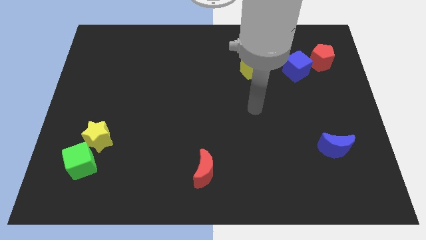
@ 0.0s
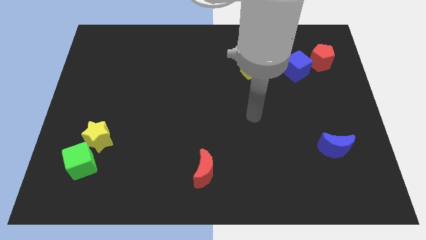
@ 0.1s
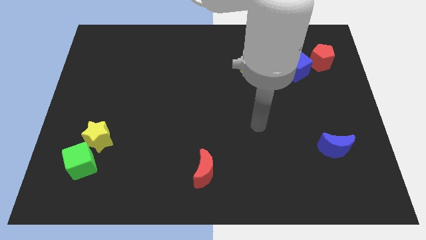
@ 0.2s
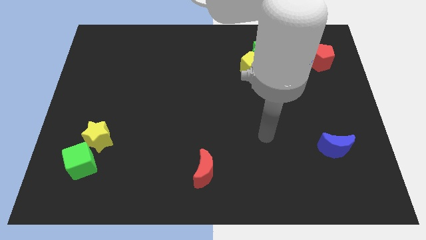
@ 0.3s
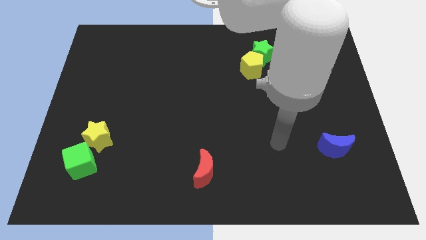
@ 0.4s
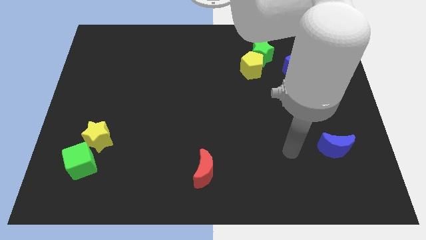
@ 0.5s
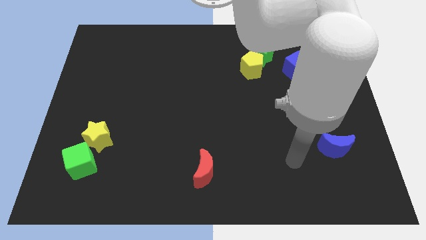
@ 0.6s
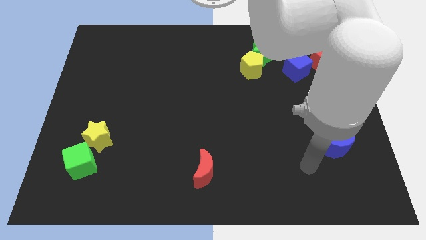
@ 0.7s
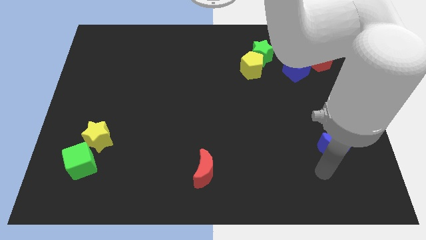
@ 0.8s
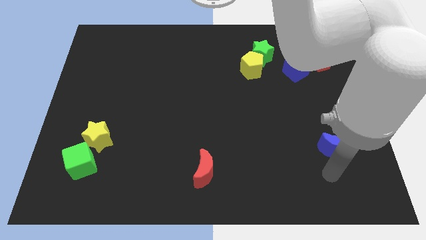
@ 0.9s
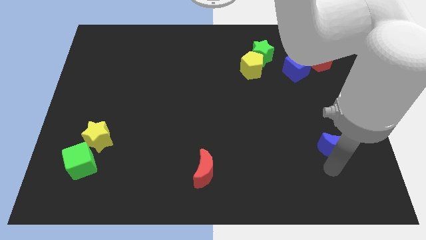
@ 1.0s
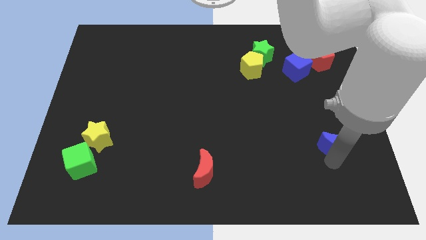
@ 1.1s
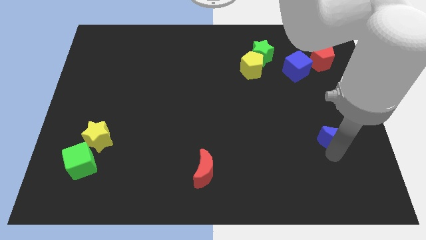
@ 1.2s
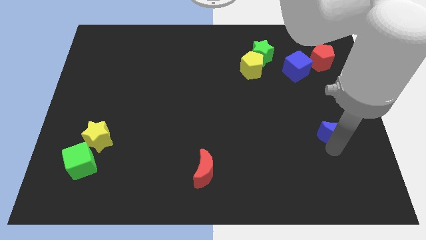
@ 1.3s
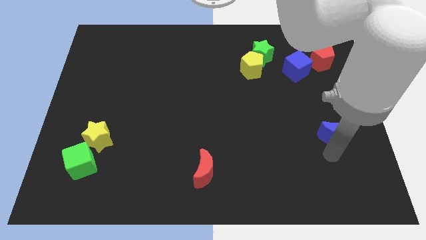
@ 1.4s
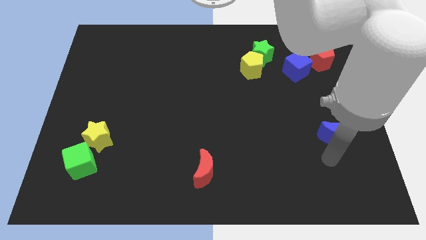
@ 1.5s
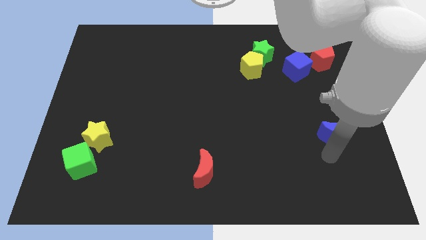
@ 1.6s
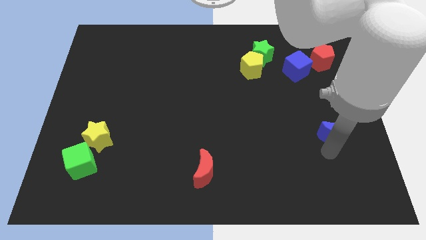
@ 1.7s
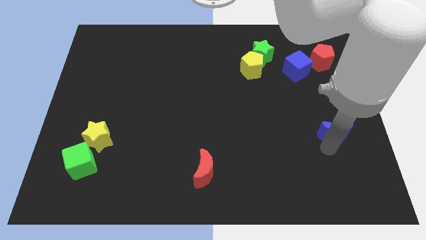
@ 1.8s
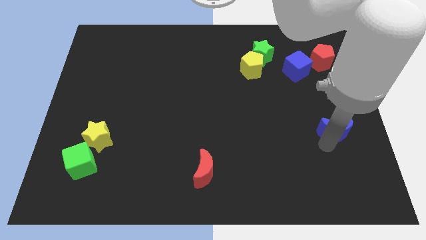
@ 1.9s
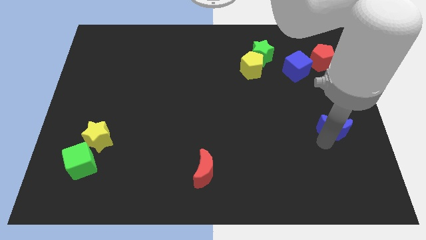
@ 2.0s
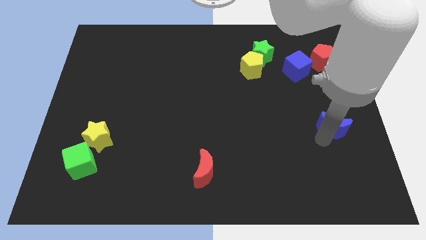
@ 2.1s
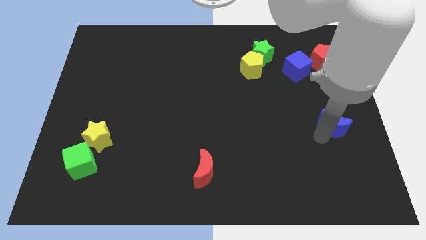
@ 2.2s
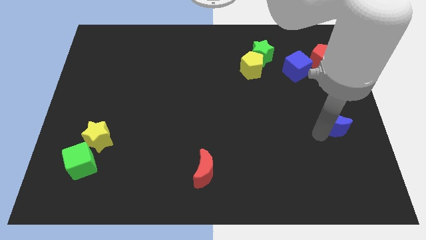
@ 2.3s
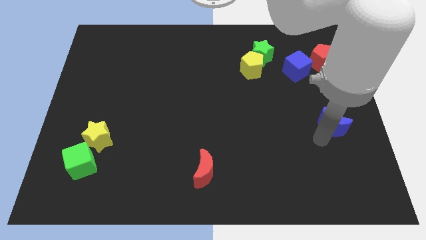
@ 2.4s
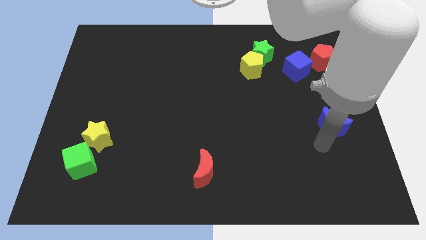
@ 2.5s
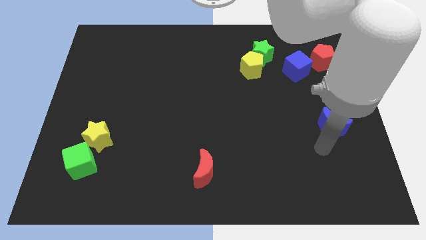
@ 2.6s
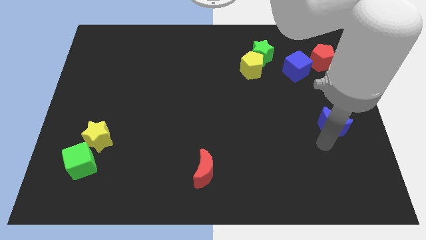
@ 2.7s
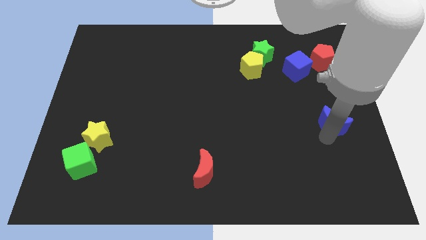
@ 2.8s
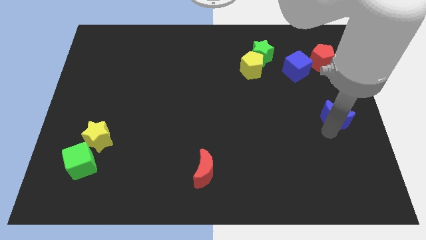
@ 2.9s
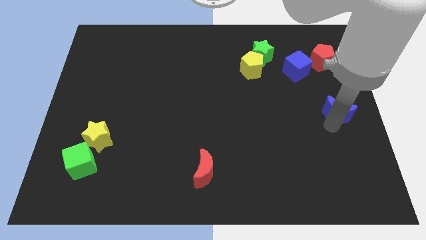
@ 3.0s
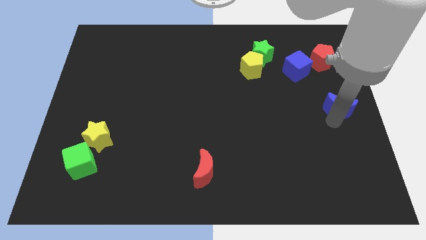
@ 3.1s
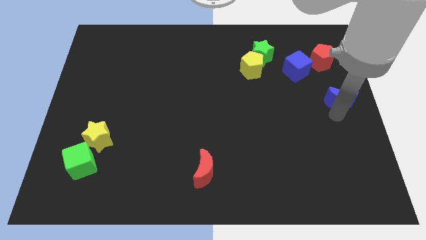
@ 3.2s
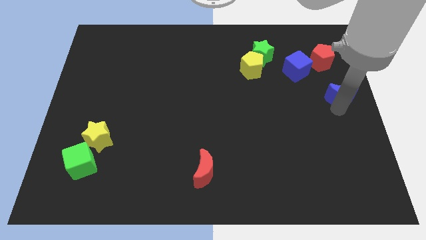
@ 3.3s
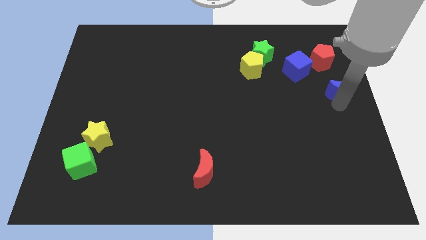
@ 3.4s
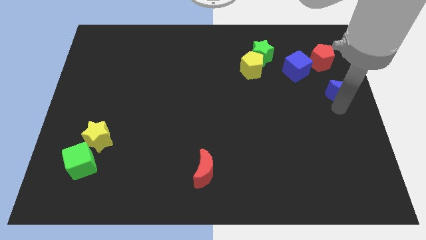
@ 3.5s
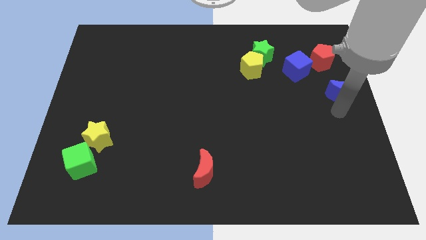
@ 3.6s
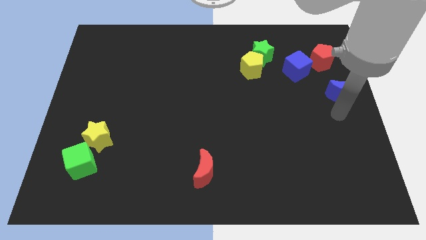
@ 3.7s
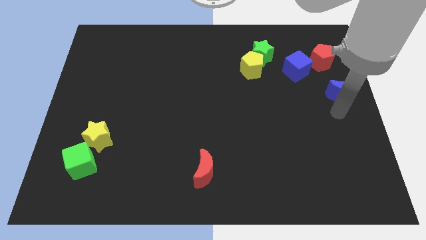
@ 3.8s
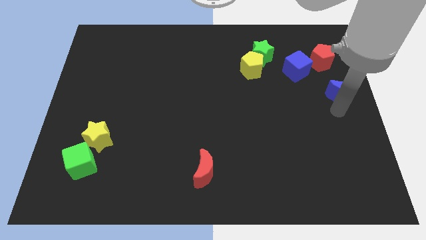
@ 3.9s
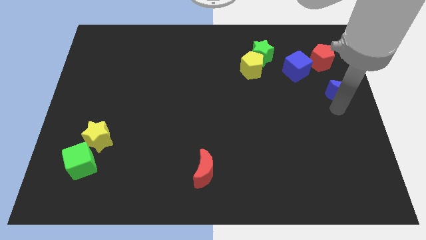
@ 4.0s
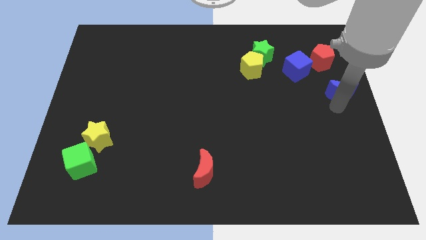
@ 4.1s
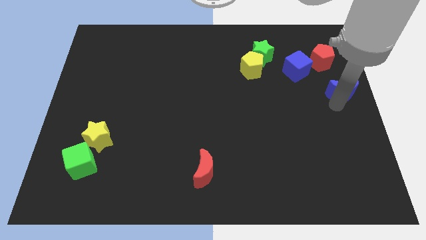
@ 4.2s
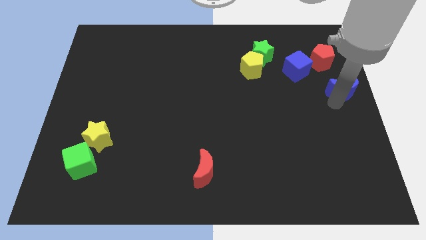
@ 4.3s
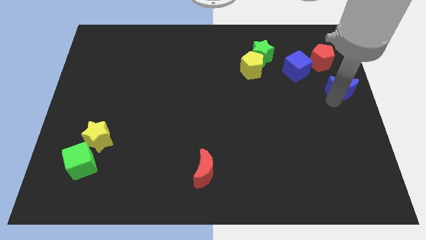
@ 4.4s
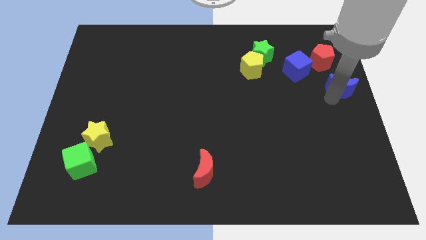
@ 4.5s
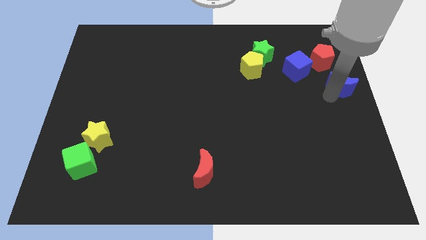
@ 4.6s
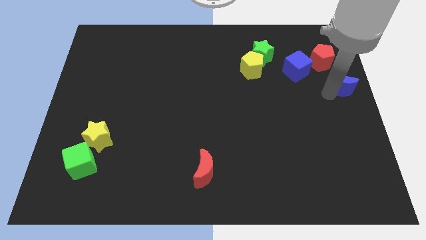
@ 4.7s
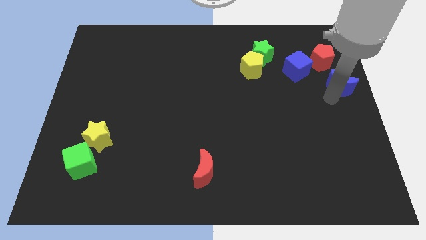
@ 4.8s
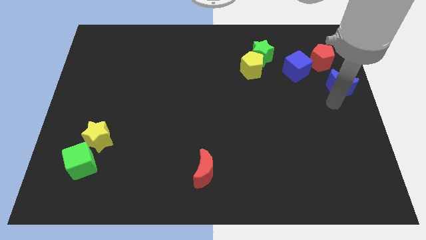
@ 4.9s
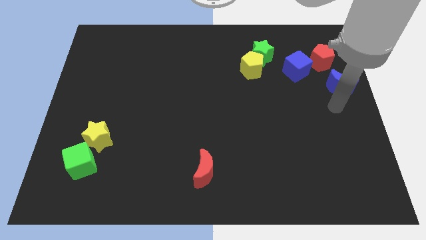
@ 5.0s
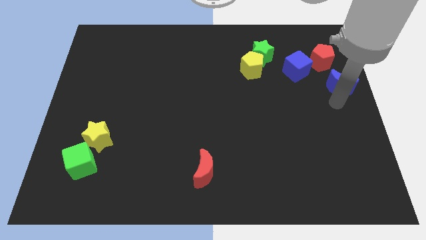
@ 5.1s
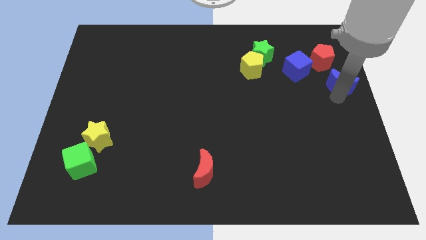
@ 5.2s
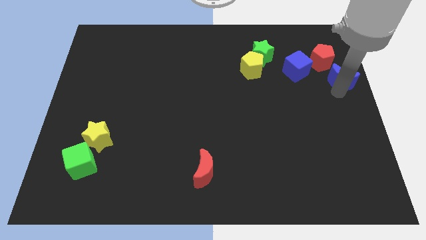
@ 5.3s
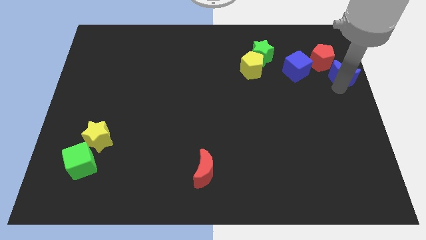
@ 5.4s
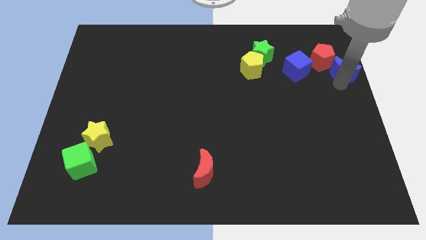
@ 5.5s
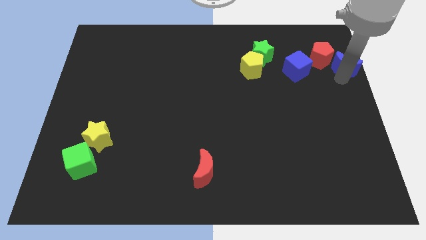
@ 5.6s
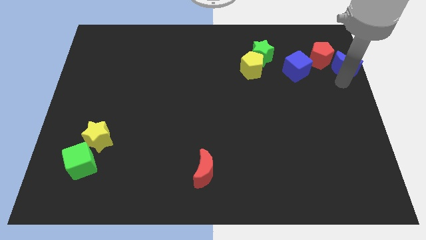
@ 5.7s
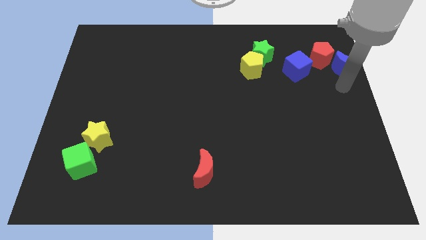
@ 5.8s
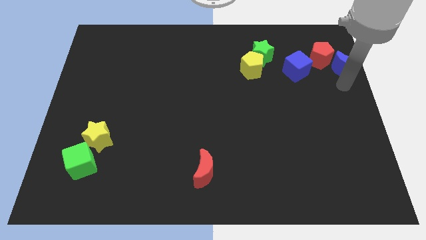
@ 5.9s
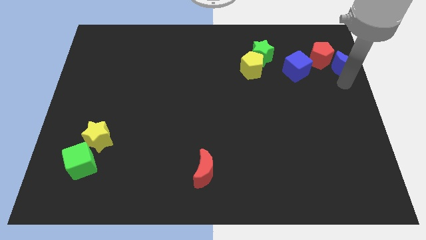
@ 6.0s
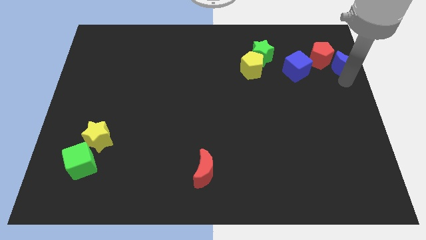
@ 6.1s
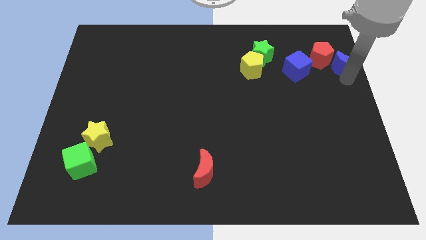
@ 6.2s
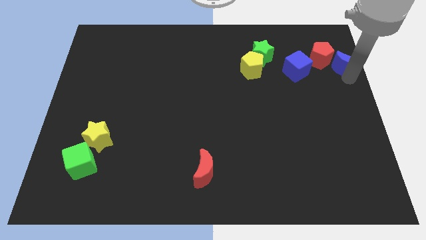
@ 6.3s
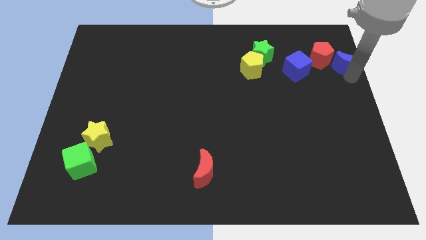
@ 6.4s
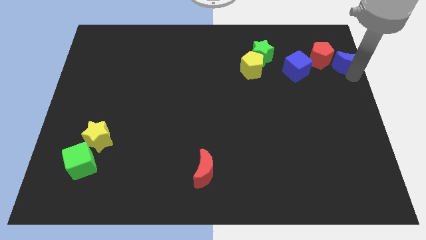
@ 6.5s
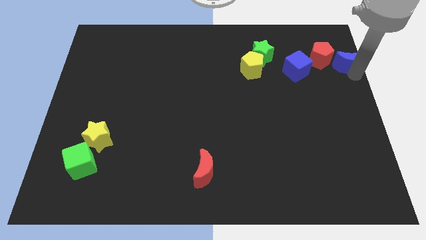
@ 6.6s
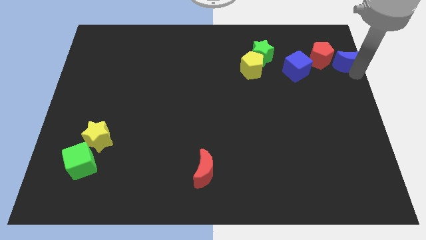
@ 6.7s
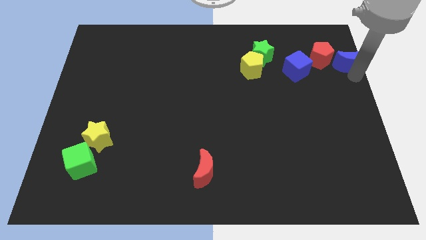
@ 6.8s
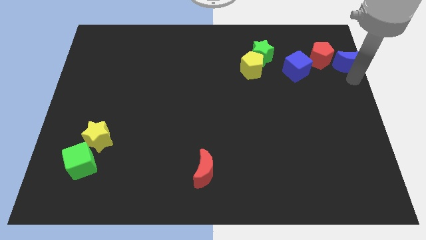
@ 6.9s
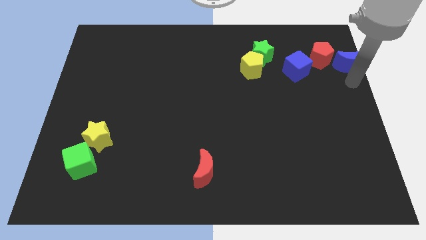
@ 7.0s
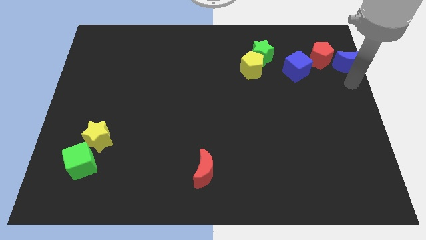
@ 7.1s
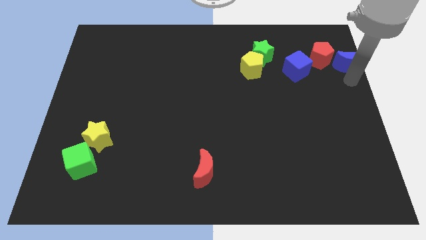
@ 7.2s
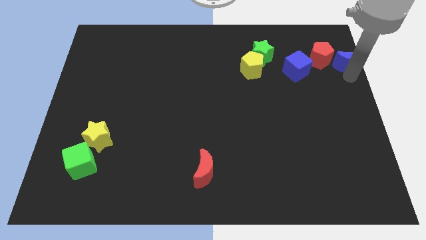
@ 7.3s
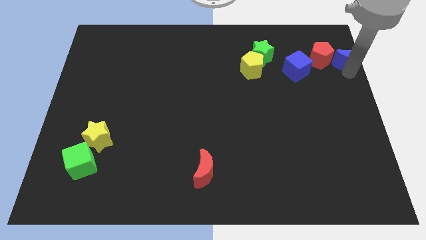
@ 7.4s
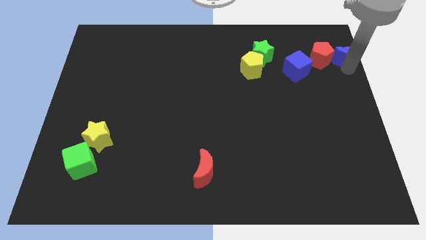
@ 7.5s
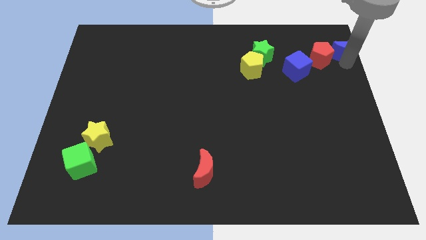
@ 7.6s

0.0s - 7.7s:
move the blue moon to the top right of the board
